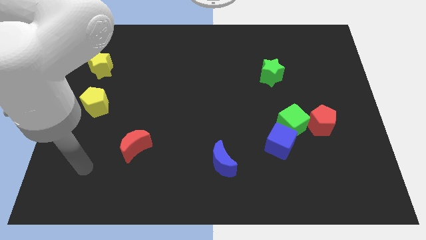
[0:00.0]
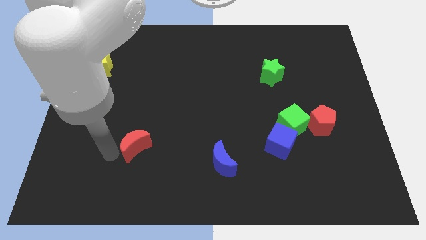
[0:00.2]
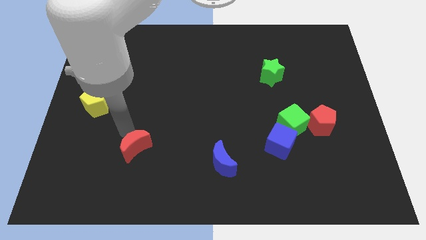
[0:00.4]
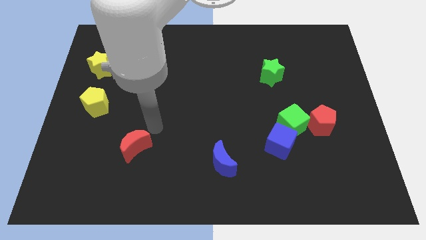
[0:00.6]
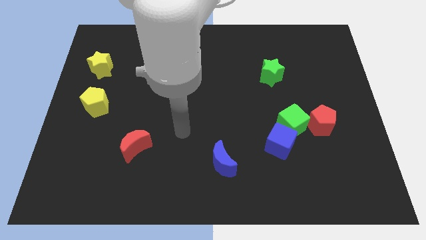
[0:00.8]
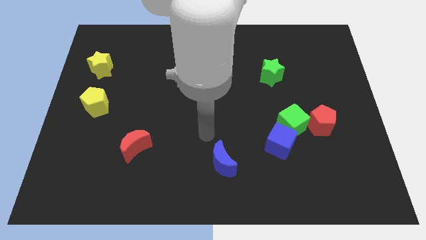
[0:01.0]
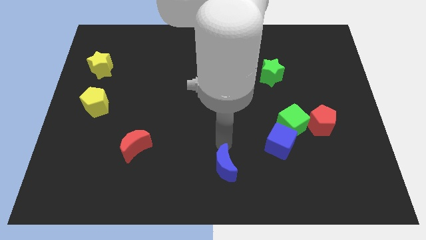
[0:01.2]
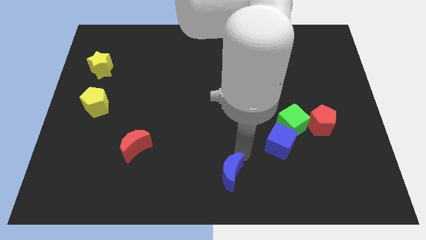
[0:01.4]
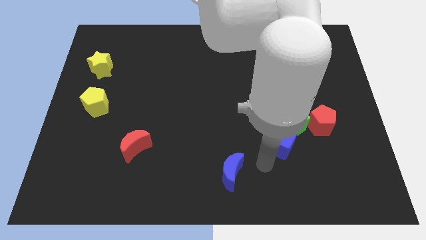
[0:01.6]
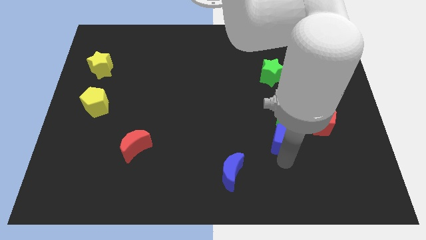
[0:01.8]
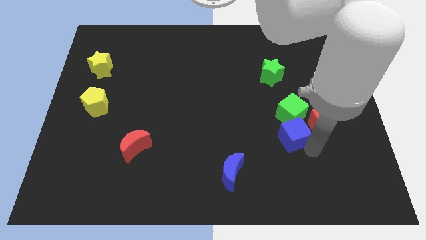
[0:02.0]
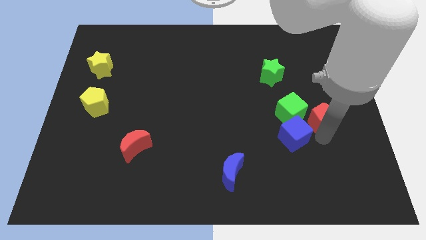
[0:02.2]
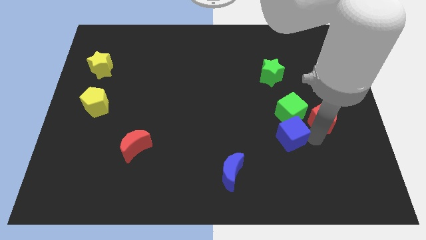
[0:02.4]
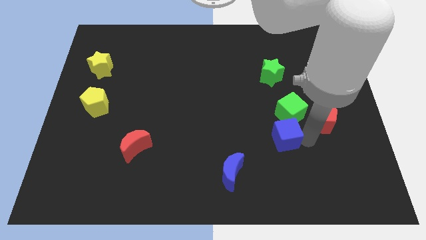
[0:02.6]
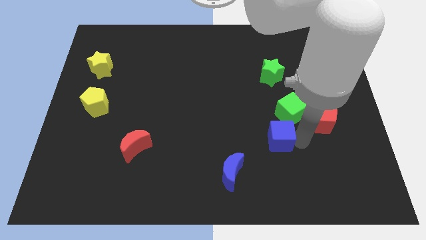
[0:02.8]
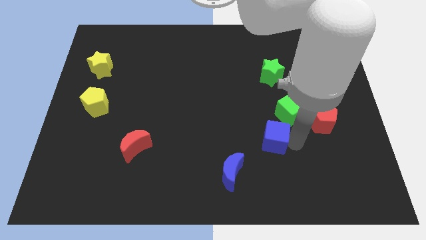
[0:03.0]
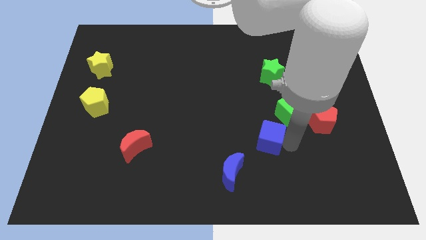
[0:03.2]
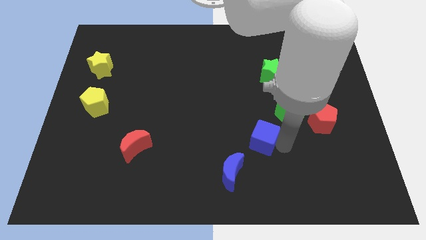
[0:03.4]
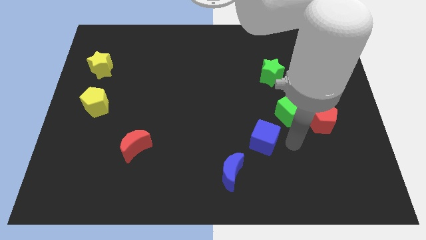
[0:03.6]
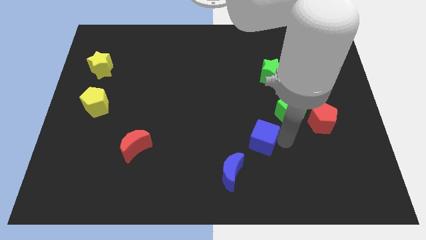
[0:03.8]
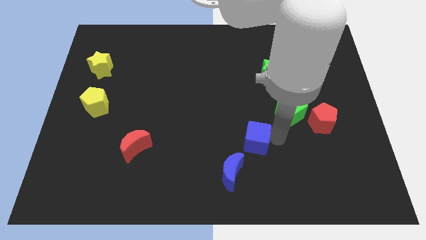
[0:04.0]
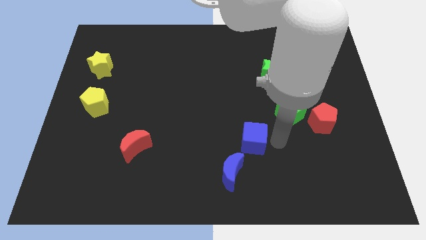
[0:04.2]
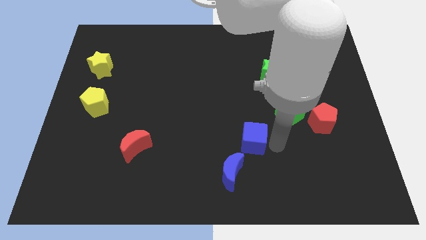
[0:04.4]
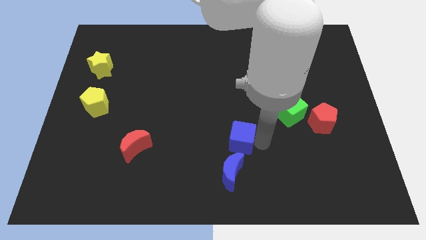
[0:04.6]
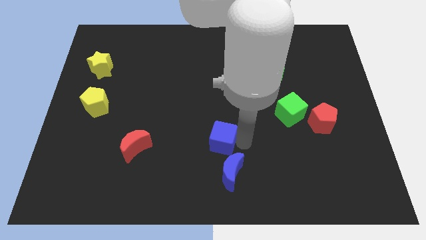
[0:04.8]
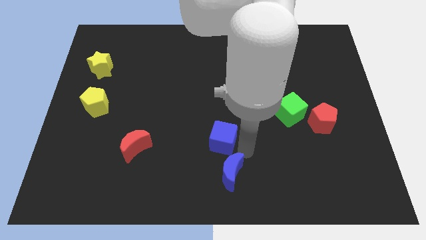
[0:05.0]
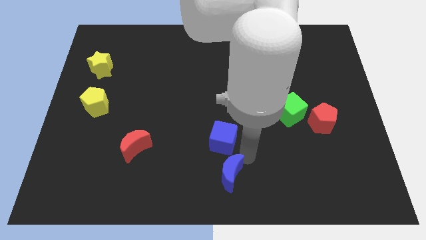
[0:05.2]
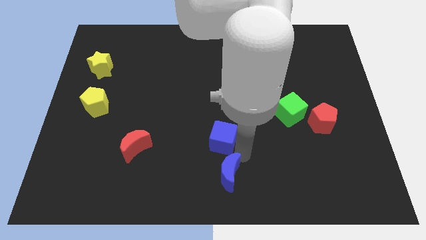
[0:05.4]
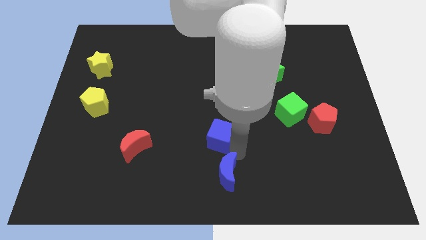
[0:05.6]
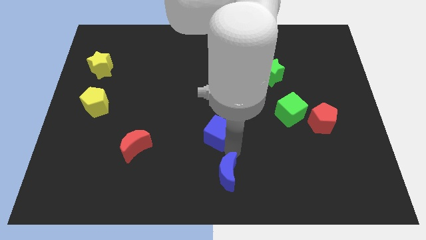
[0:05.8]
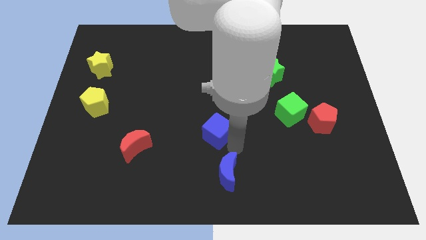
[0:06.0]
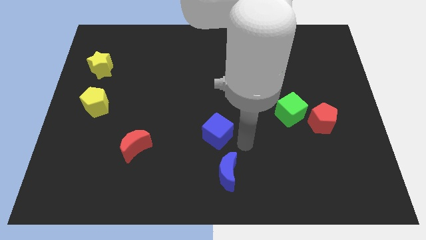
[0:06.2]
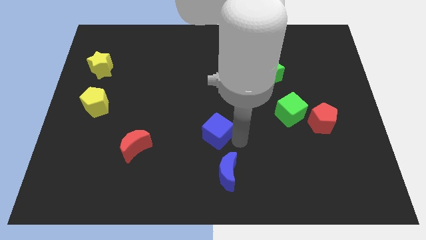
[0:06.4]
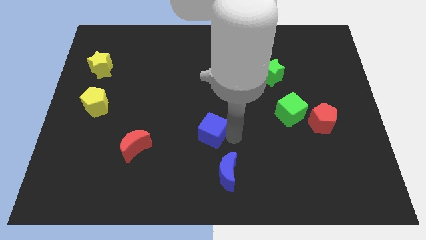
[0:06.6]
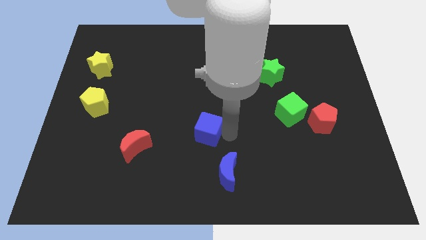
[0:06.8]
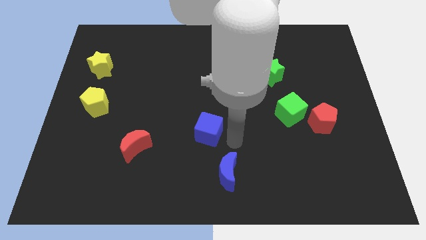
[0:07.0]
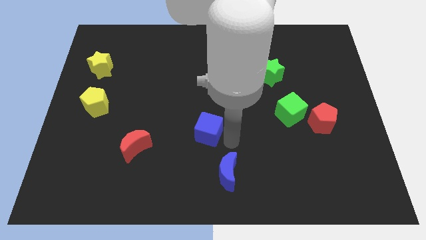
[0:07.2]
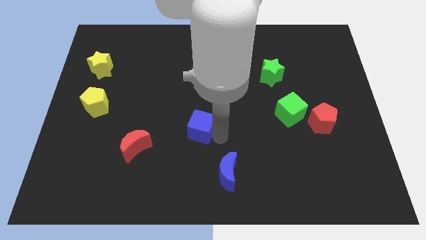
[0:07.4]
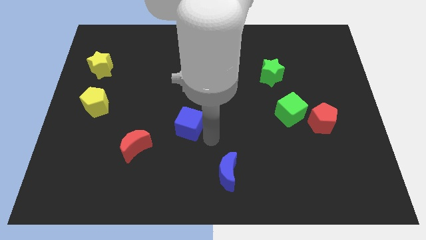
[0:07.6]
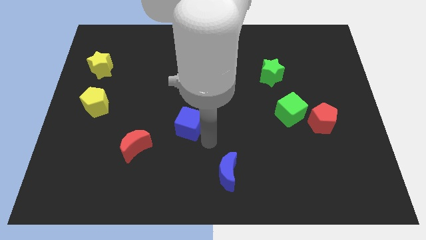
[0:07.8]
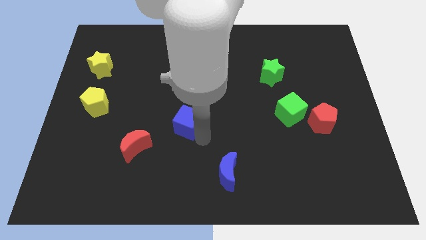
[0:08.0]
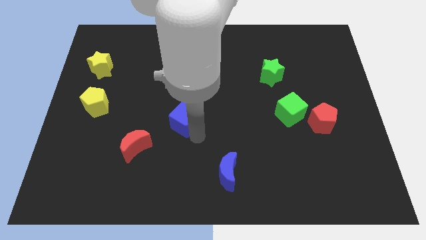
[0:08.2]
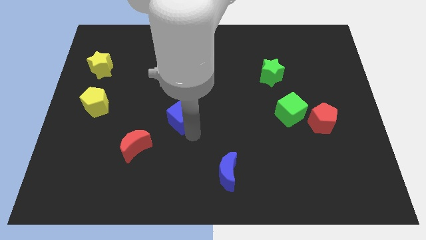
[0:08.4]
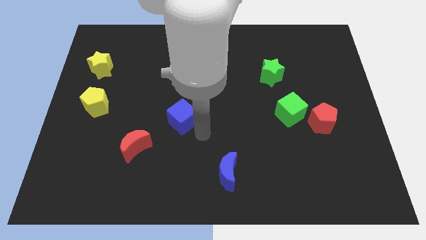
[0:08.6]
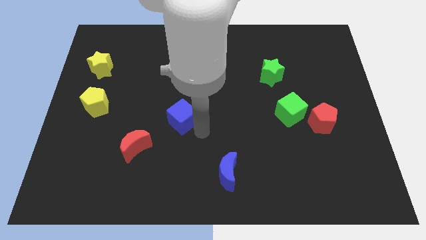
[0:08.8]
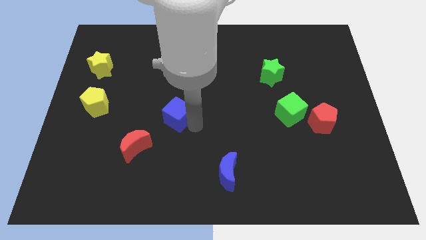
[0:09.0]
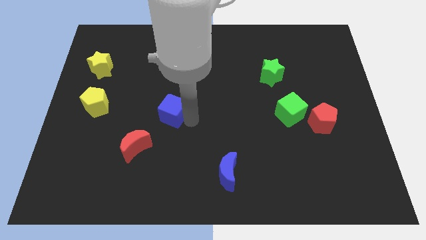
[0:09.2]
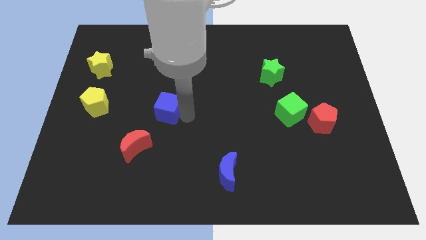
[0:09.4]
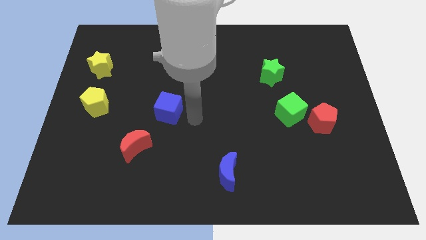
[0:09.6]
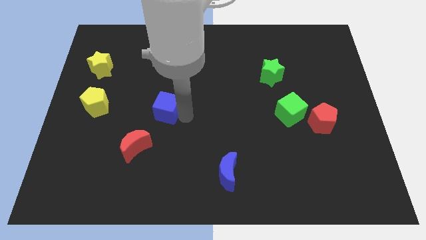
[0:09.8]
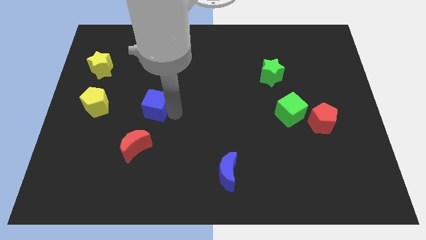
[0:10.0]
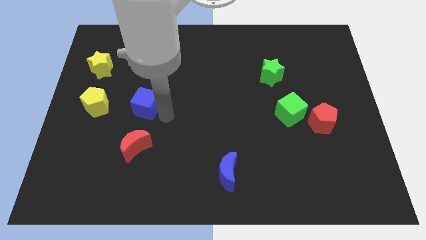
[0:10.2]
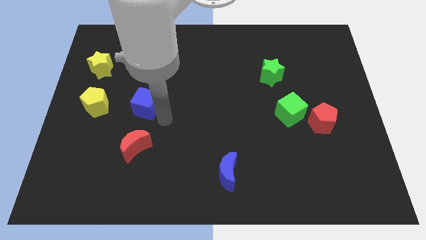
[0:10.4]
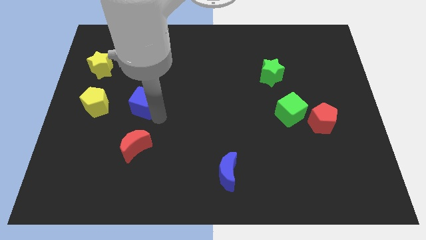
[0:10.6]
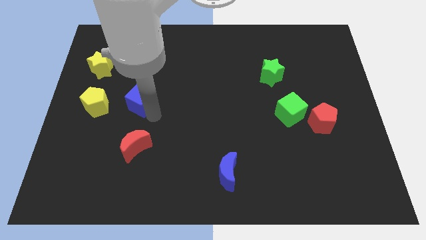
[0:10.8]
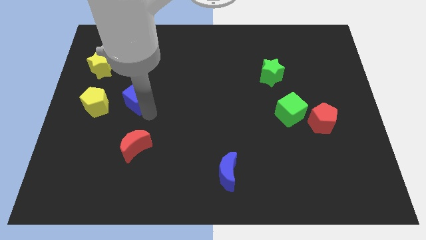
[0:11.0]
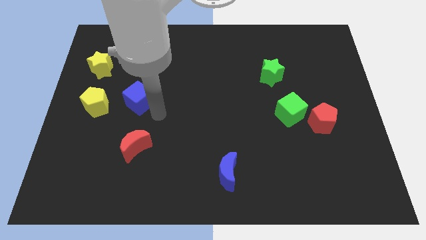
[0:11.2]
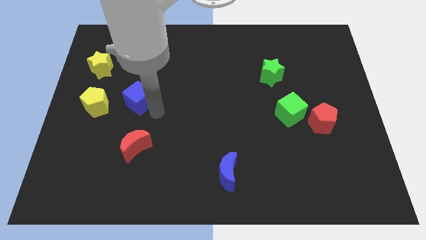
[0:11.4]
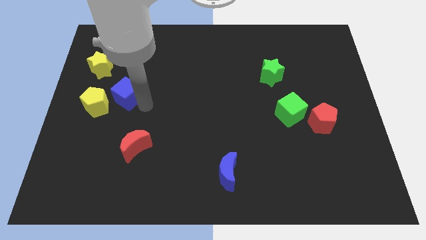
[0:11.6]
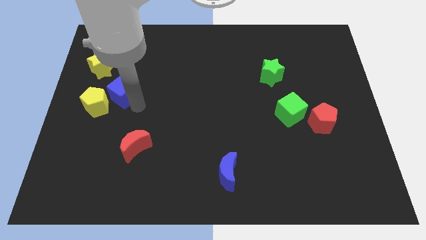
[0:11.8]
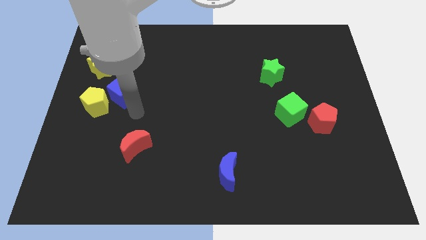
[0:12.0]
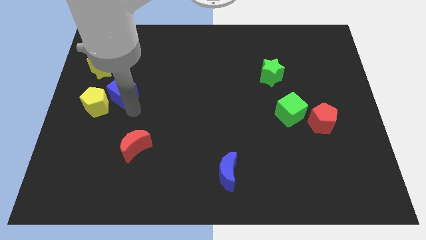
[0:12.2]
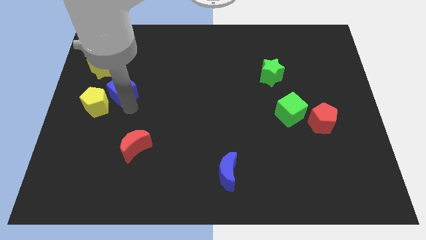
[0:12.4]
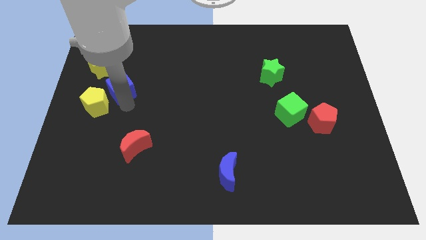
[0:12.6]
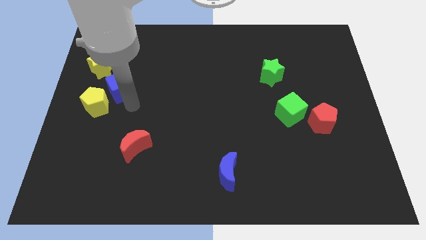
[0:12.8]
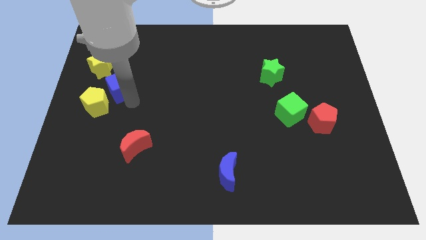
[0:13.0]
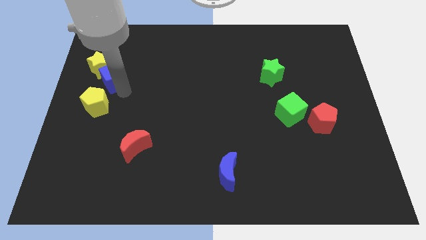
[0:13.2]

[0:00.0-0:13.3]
put the blue cube to the yellow star

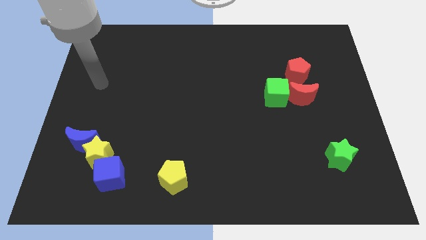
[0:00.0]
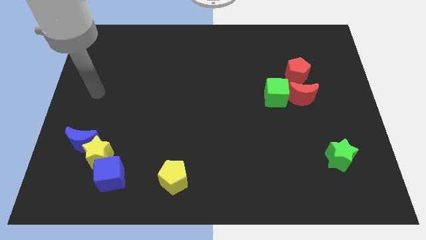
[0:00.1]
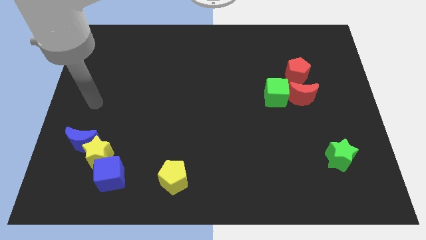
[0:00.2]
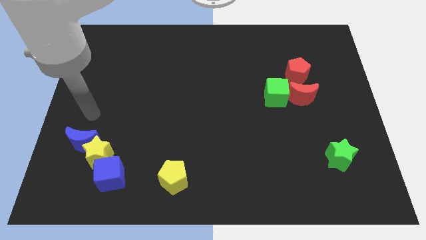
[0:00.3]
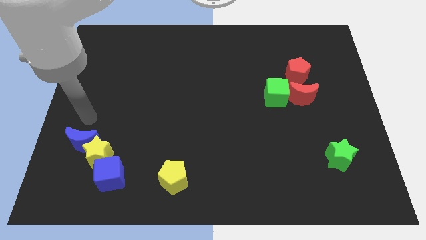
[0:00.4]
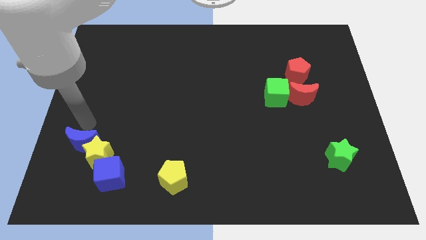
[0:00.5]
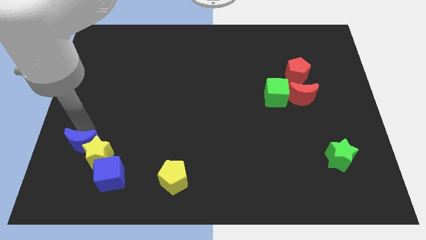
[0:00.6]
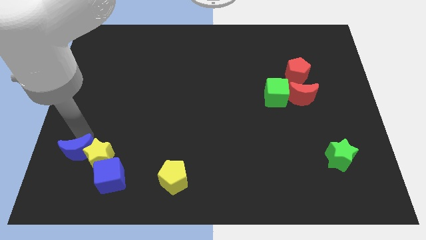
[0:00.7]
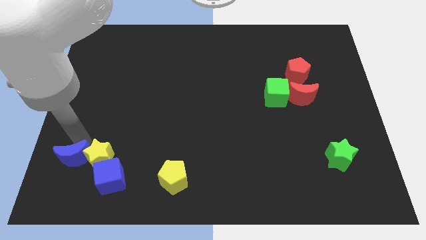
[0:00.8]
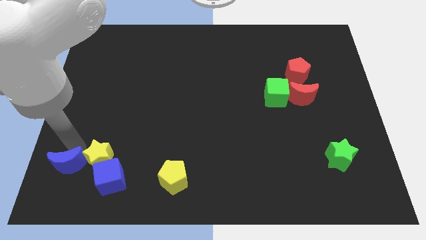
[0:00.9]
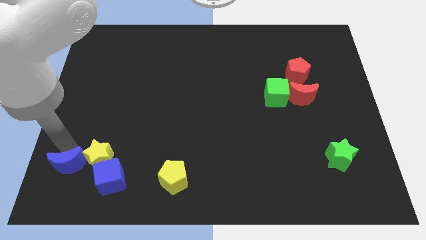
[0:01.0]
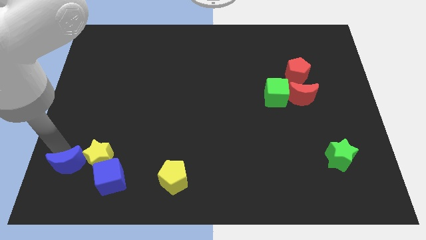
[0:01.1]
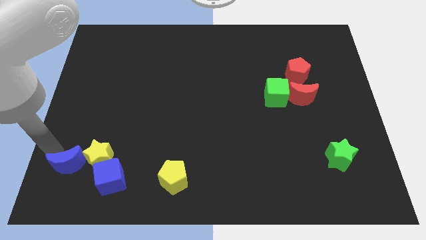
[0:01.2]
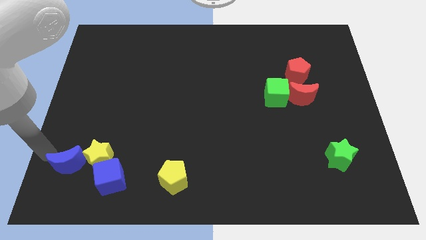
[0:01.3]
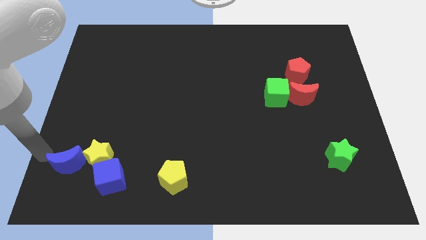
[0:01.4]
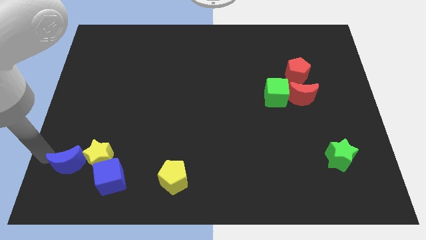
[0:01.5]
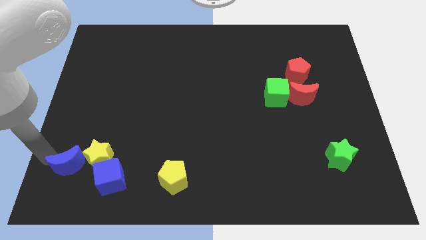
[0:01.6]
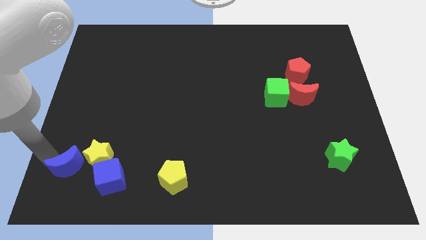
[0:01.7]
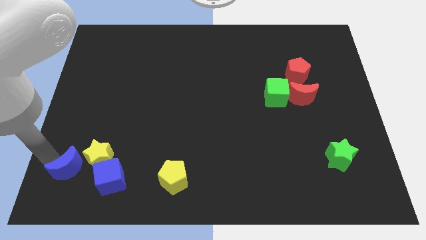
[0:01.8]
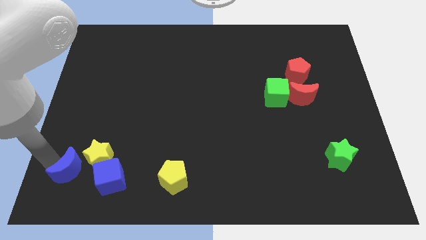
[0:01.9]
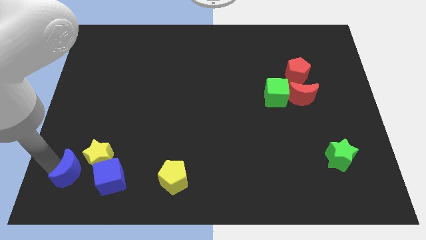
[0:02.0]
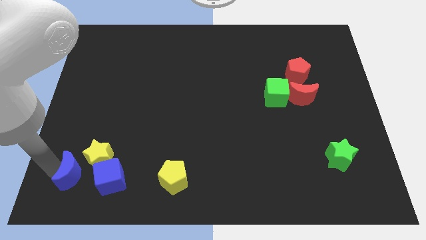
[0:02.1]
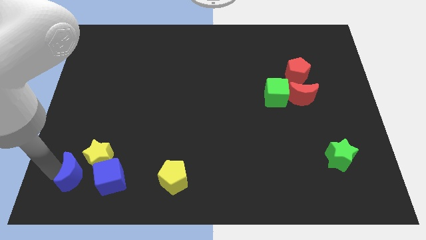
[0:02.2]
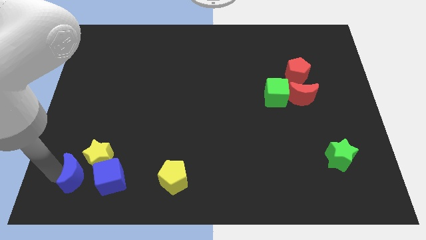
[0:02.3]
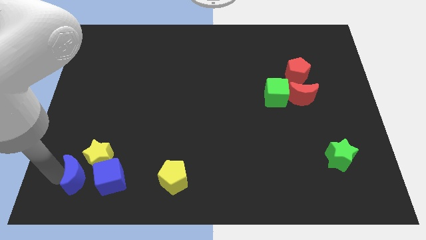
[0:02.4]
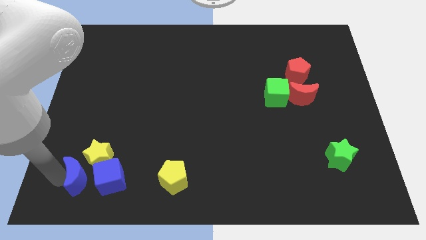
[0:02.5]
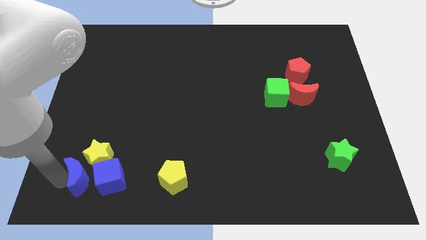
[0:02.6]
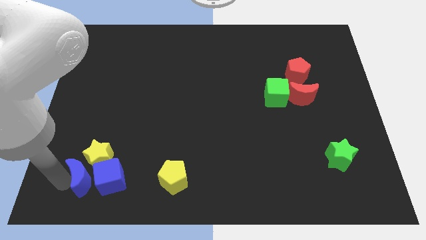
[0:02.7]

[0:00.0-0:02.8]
push the blue moon to the blue cube
